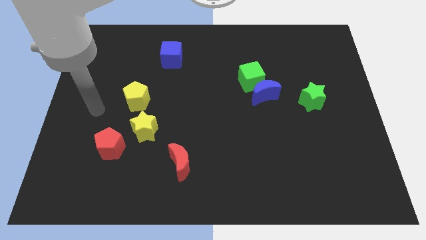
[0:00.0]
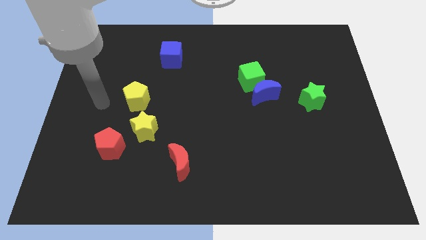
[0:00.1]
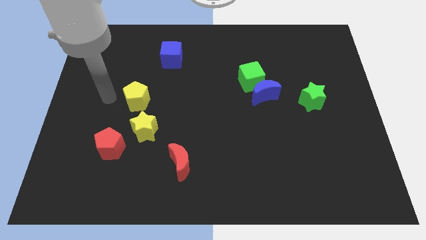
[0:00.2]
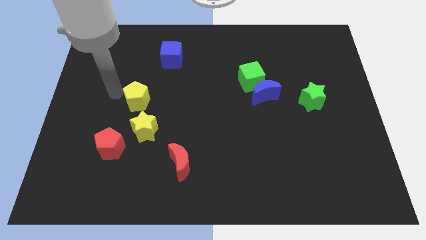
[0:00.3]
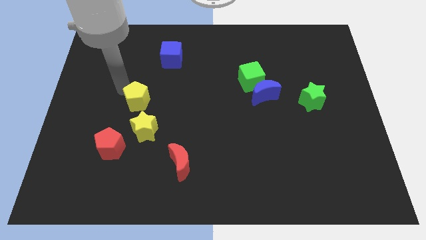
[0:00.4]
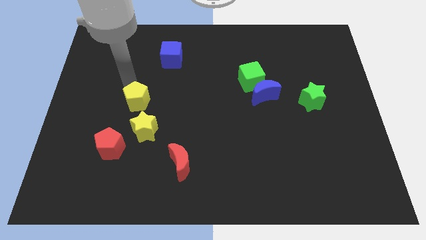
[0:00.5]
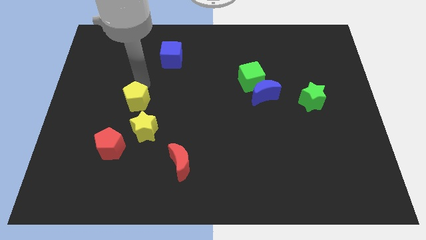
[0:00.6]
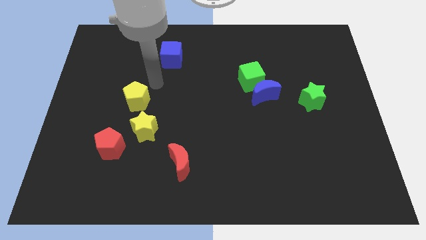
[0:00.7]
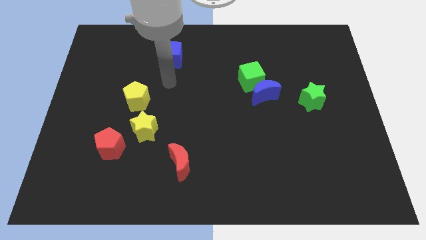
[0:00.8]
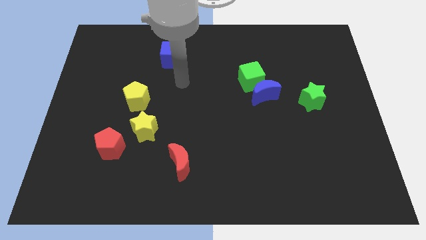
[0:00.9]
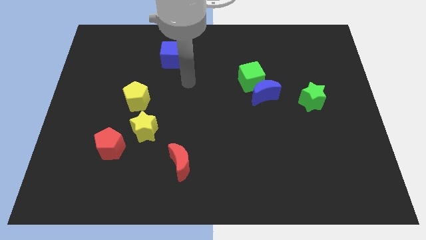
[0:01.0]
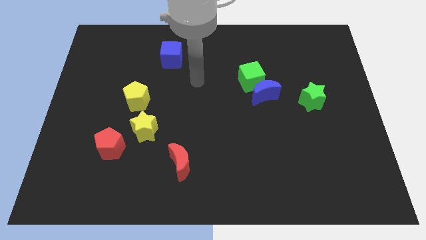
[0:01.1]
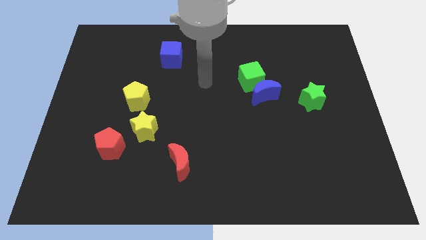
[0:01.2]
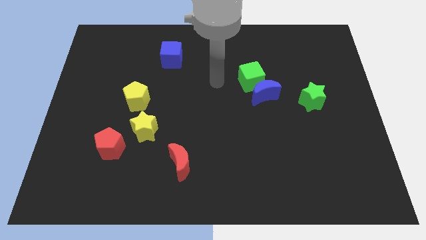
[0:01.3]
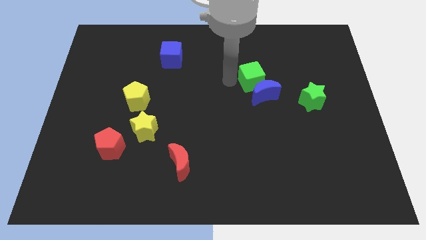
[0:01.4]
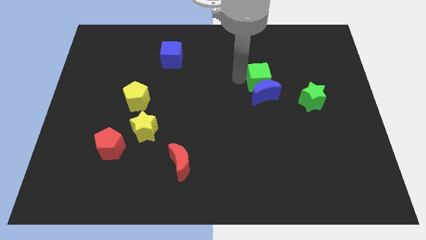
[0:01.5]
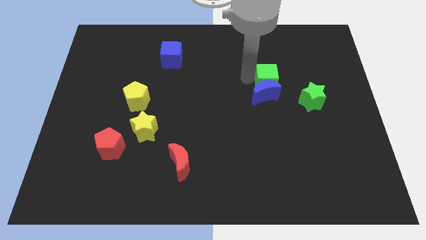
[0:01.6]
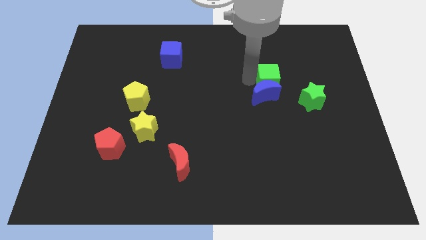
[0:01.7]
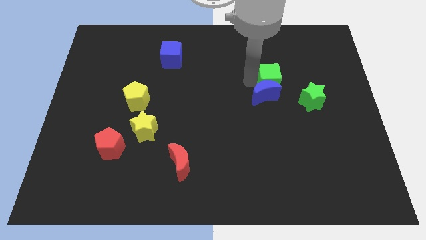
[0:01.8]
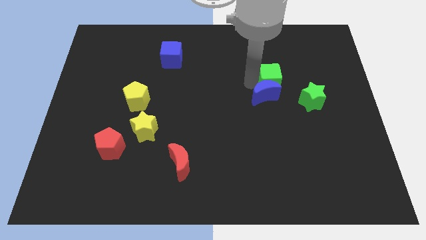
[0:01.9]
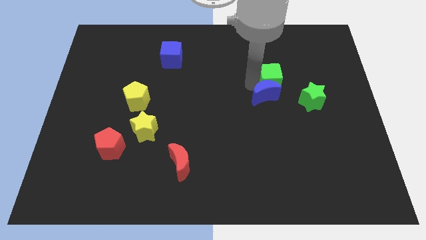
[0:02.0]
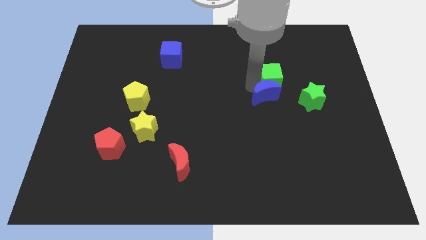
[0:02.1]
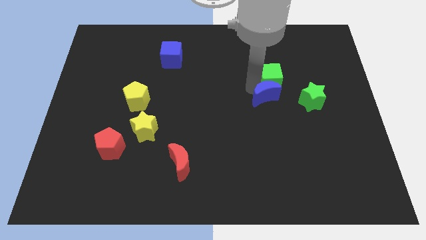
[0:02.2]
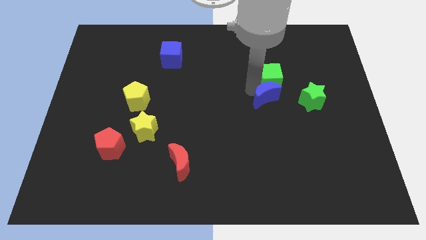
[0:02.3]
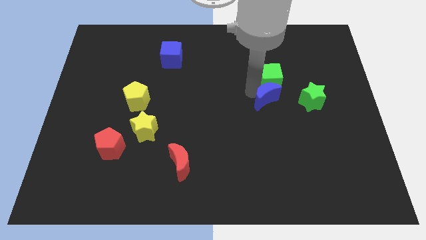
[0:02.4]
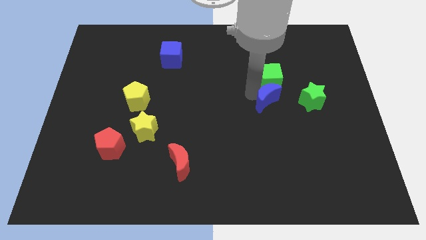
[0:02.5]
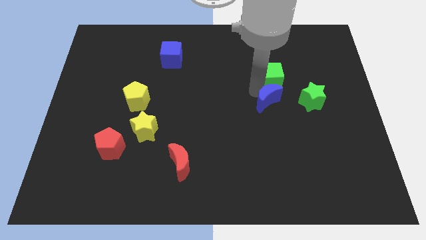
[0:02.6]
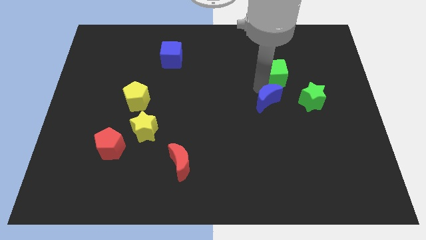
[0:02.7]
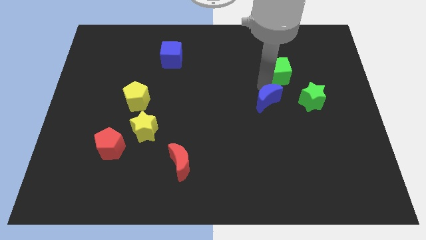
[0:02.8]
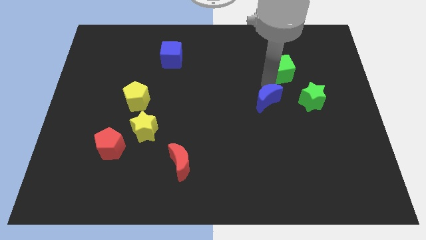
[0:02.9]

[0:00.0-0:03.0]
pull the blue moon apart from the green cube

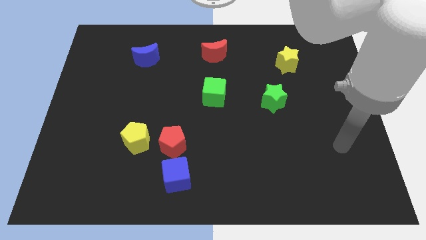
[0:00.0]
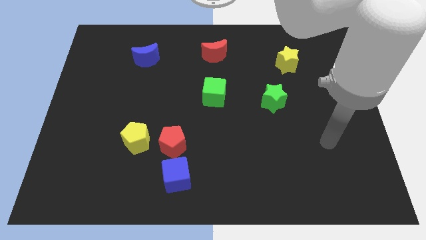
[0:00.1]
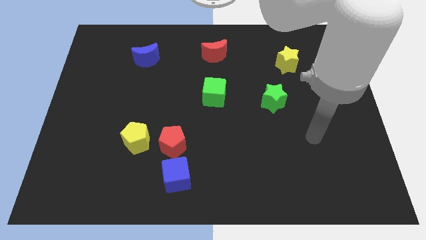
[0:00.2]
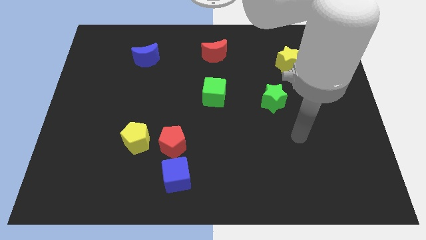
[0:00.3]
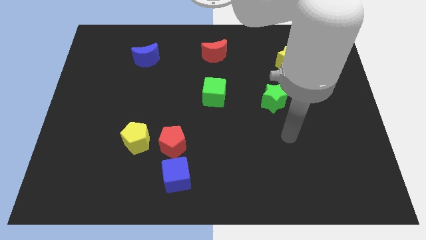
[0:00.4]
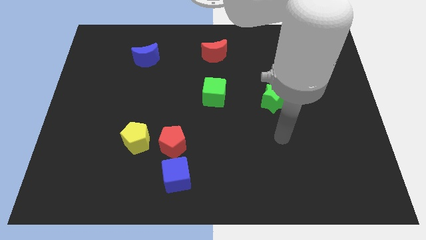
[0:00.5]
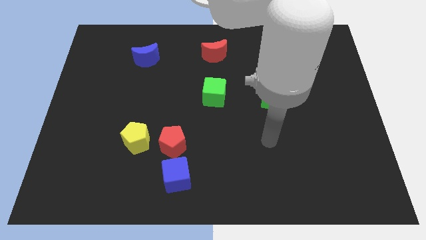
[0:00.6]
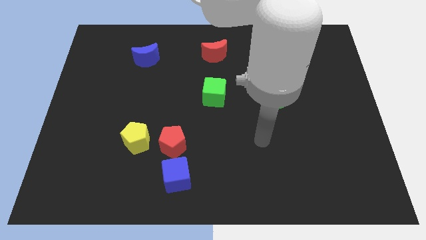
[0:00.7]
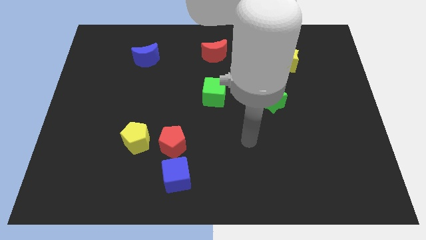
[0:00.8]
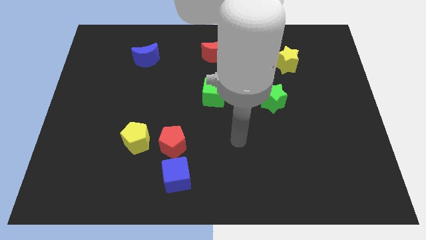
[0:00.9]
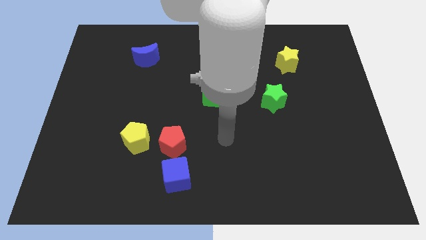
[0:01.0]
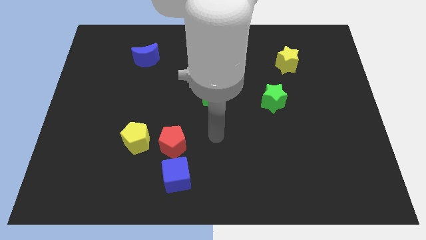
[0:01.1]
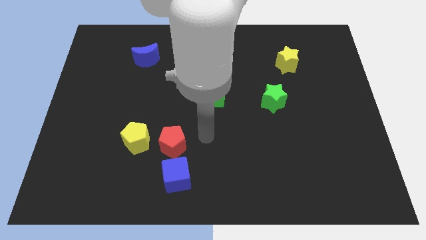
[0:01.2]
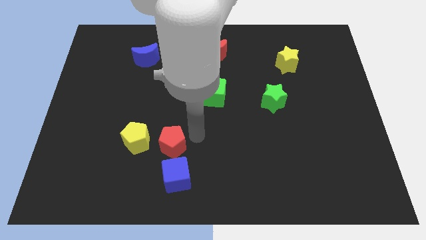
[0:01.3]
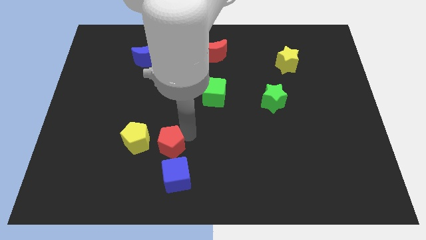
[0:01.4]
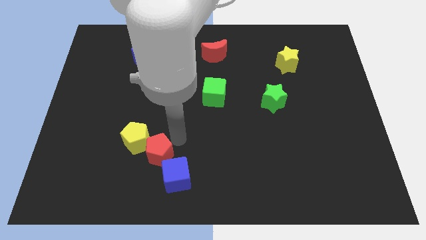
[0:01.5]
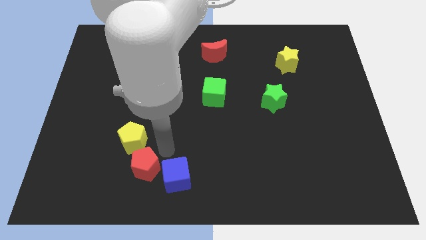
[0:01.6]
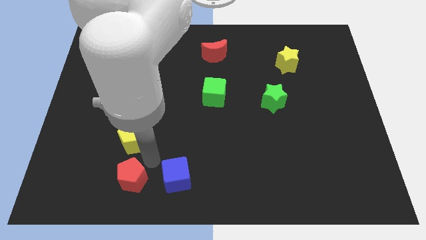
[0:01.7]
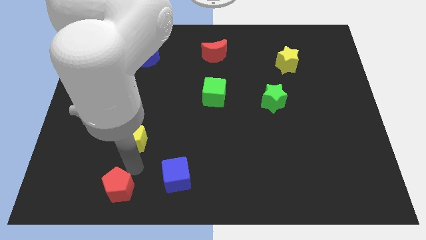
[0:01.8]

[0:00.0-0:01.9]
separate the yellow pentagon from the red pentagon

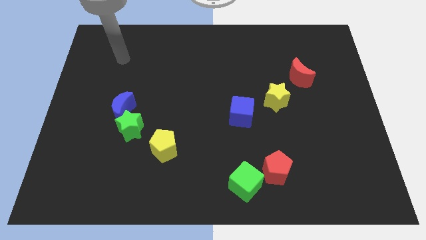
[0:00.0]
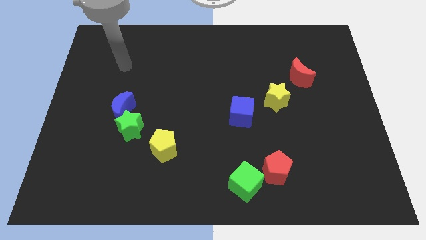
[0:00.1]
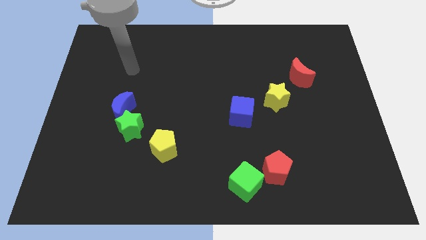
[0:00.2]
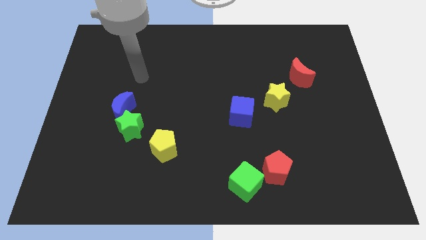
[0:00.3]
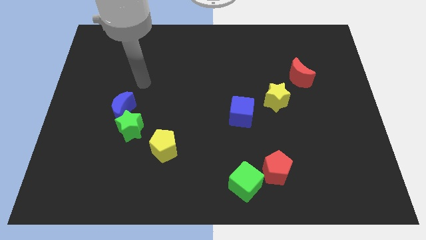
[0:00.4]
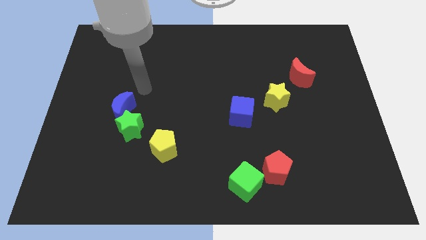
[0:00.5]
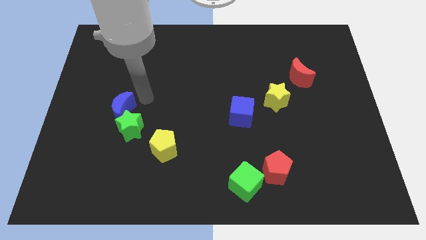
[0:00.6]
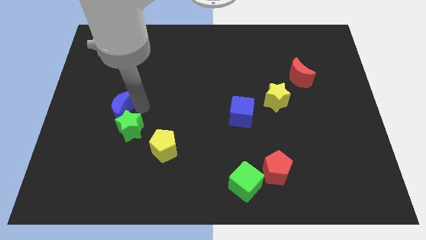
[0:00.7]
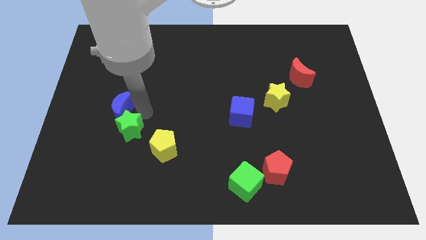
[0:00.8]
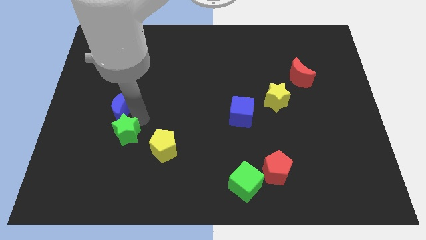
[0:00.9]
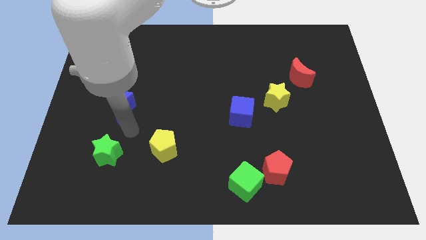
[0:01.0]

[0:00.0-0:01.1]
separate the blue moon from the green star

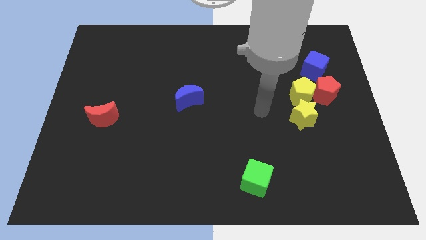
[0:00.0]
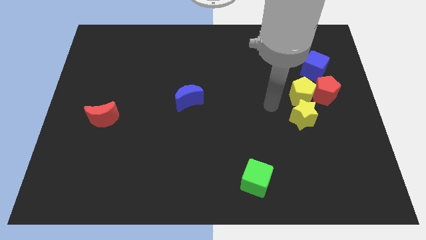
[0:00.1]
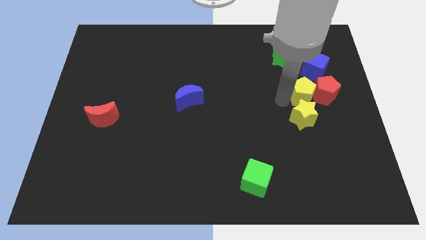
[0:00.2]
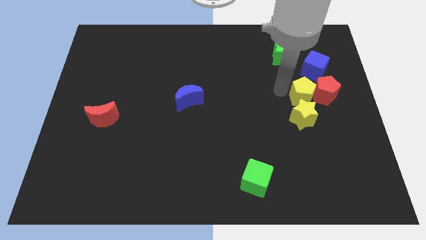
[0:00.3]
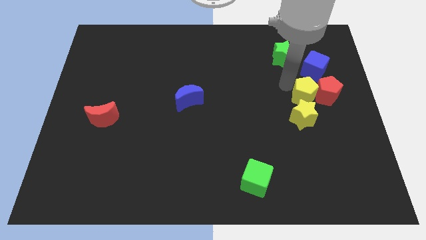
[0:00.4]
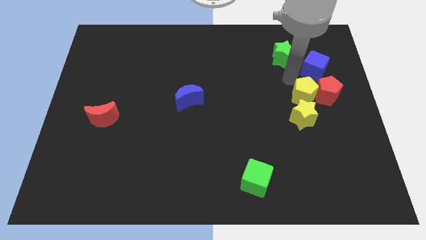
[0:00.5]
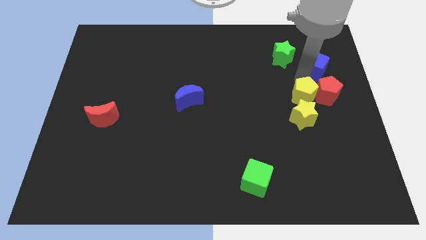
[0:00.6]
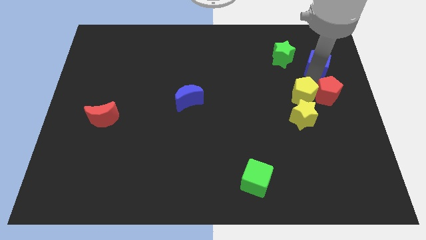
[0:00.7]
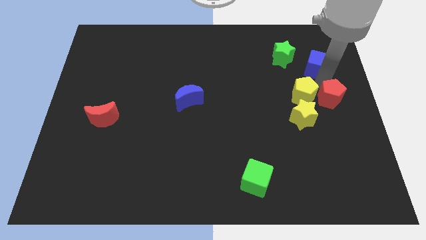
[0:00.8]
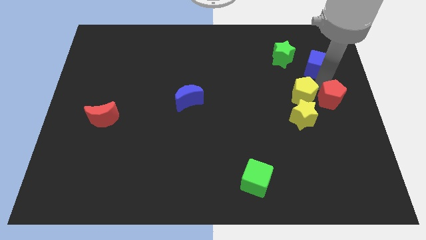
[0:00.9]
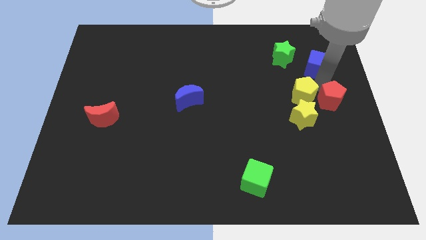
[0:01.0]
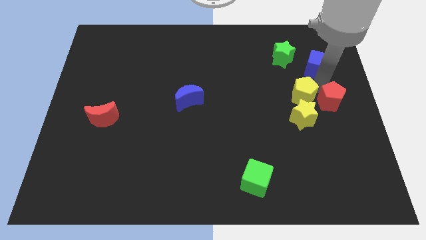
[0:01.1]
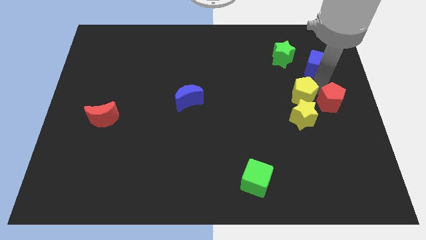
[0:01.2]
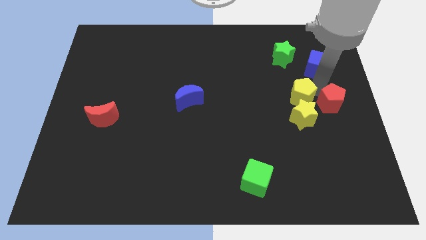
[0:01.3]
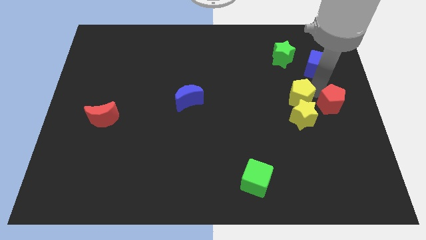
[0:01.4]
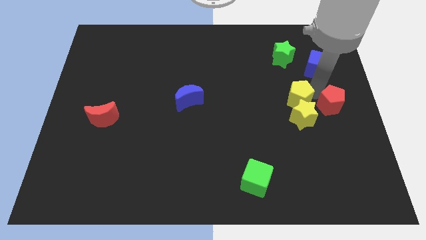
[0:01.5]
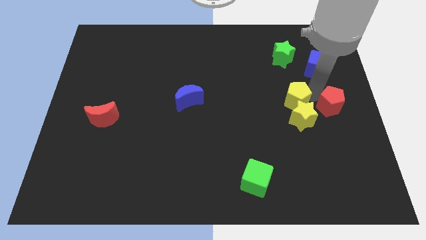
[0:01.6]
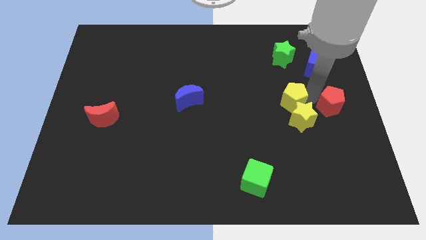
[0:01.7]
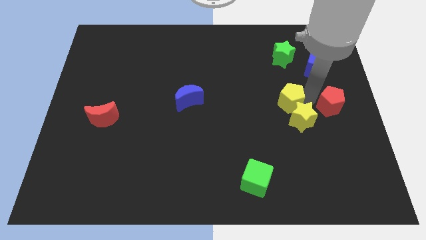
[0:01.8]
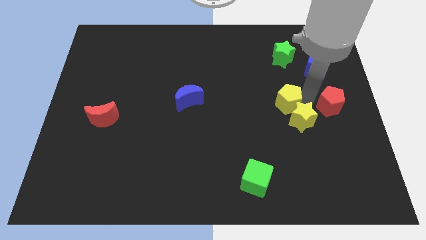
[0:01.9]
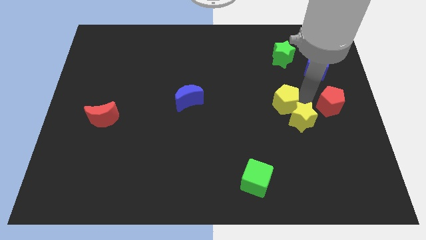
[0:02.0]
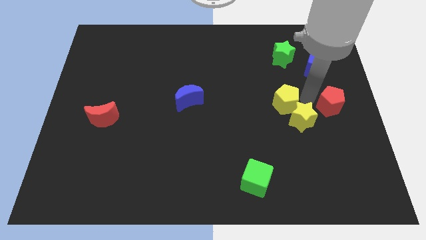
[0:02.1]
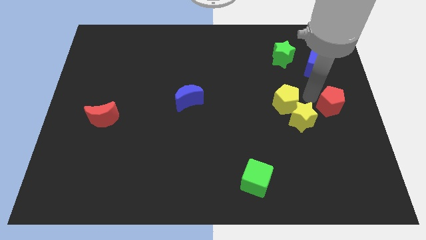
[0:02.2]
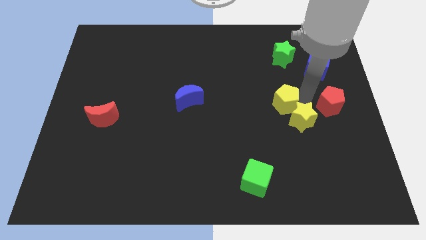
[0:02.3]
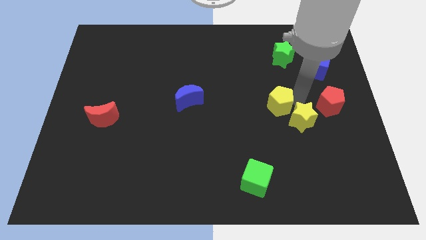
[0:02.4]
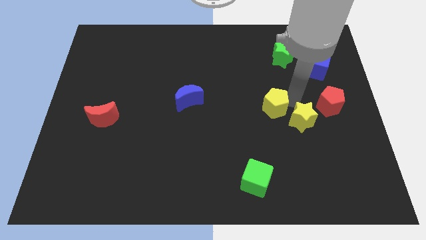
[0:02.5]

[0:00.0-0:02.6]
pull the yellow pentagon apart from the red pentagon, yellow star, and blue cube

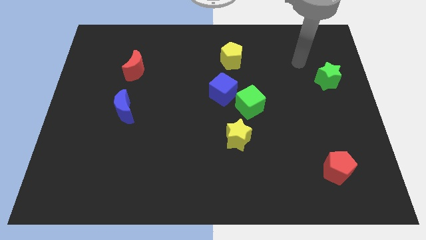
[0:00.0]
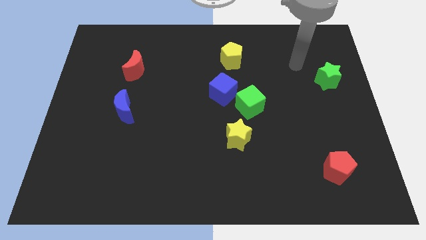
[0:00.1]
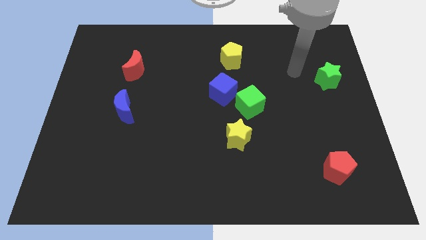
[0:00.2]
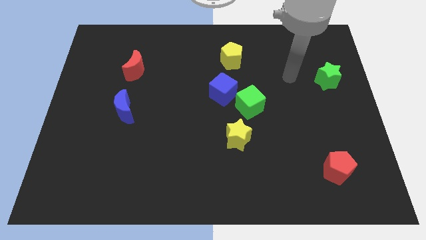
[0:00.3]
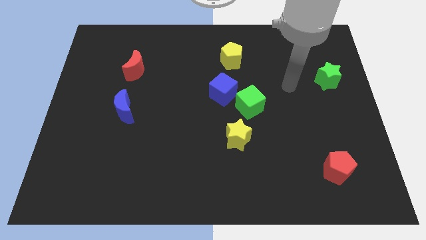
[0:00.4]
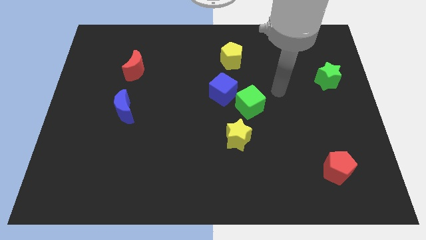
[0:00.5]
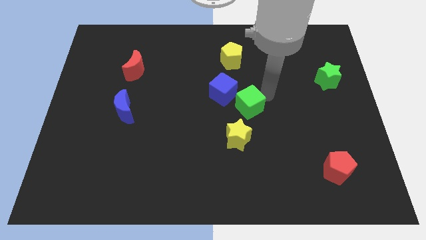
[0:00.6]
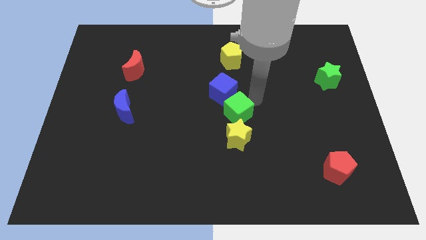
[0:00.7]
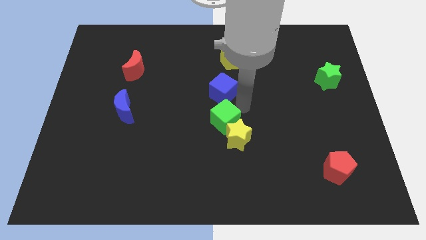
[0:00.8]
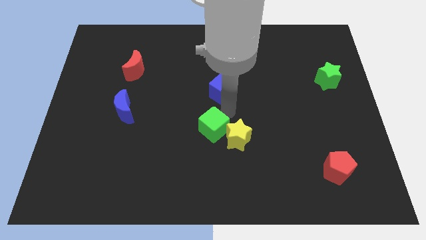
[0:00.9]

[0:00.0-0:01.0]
pull the blue cube apart from the green cube
